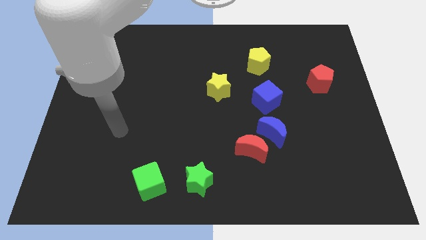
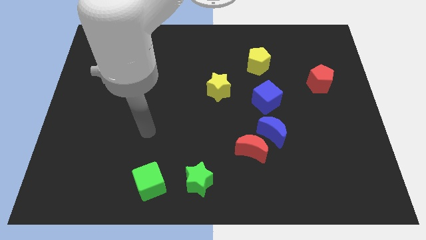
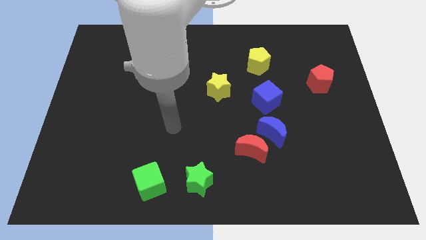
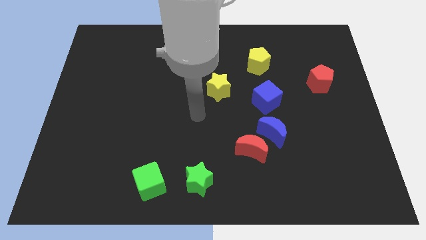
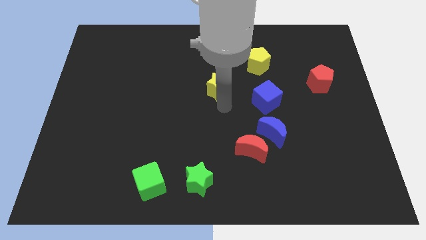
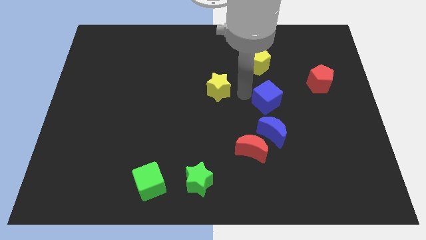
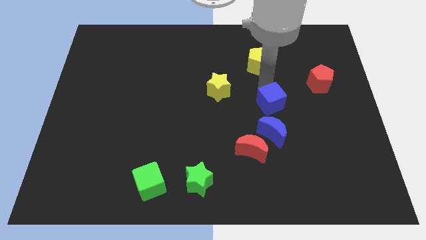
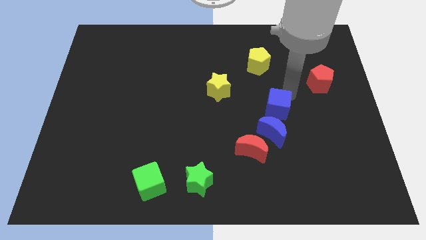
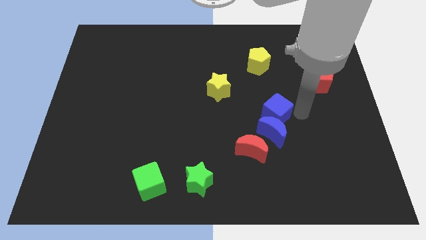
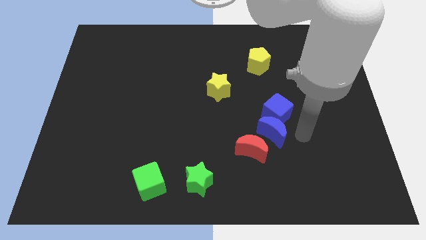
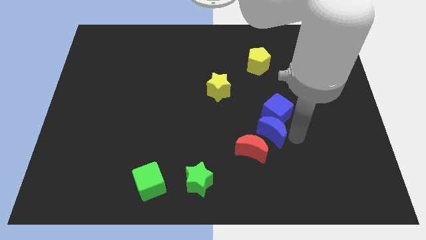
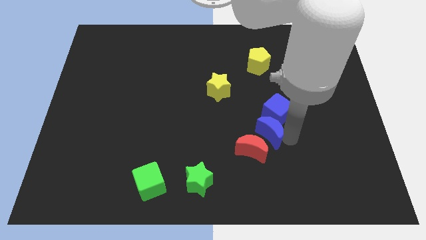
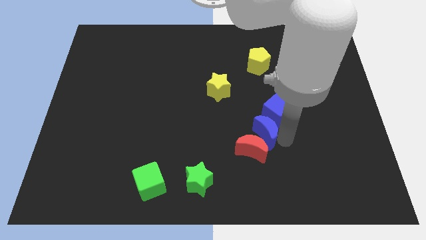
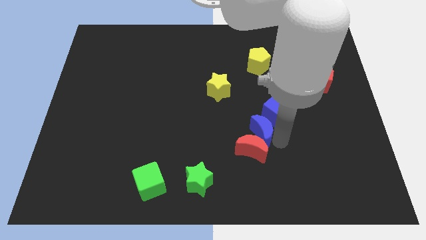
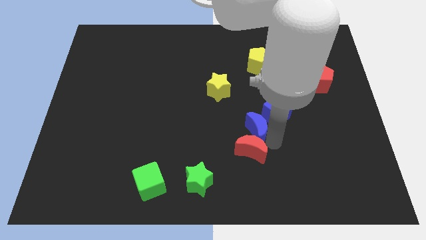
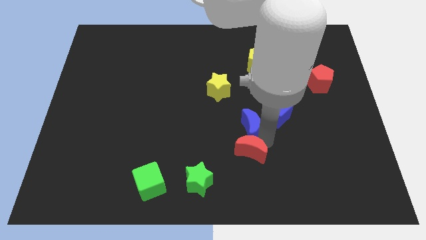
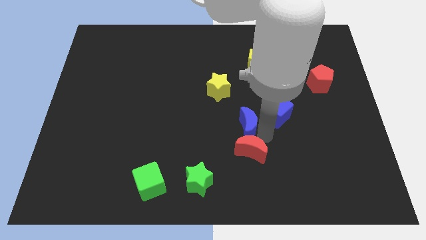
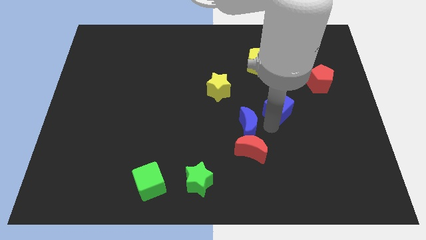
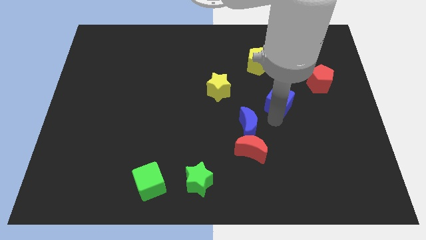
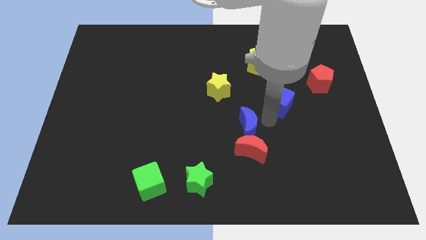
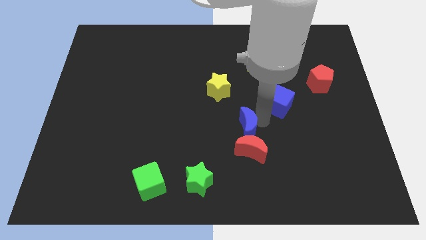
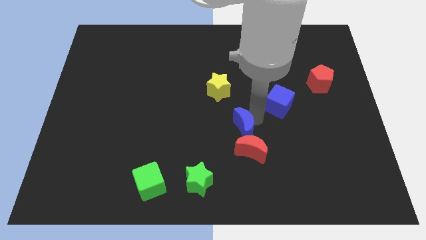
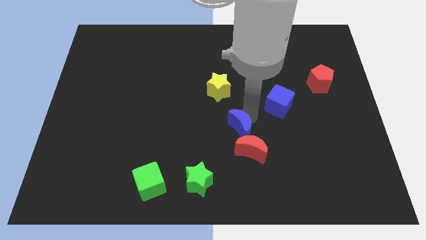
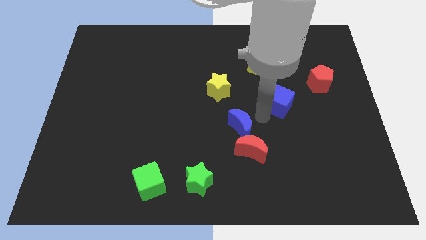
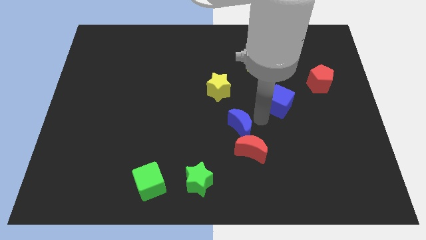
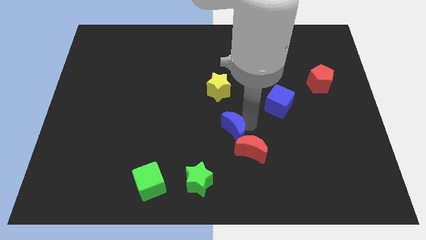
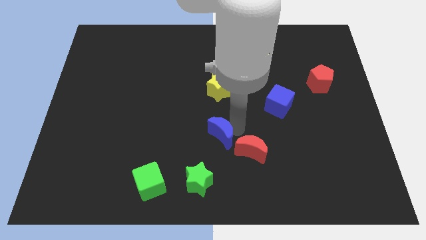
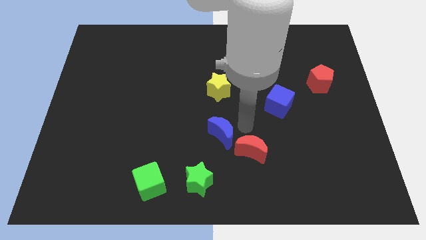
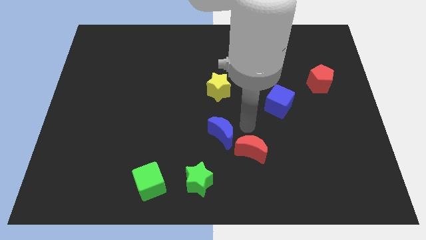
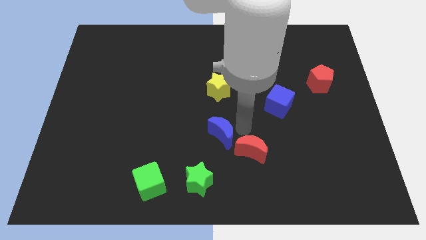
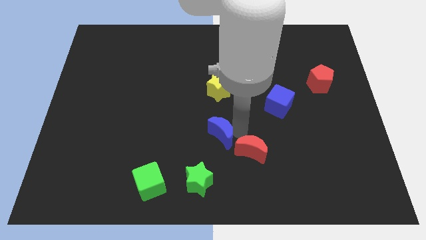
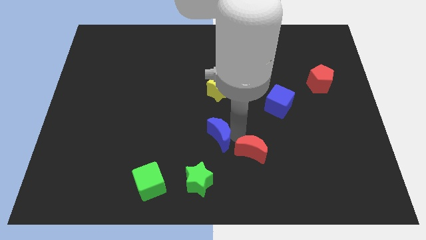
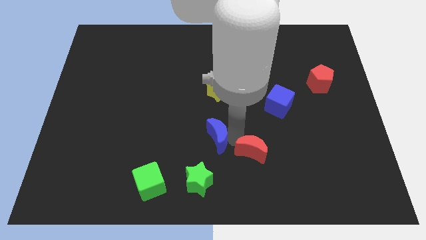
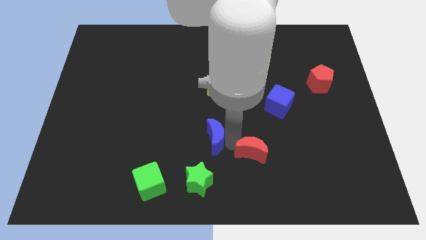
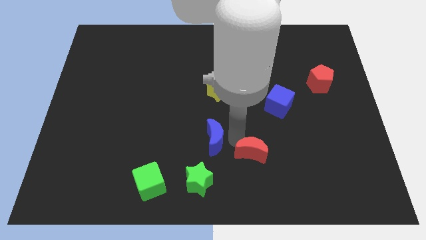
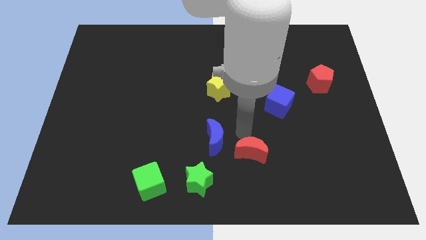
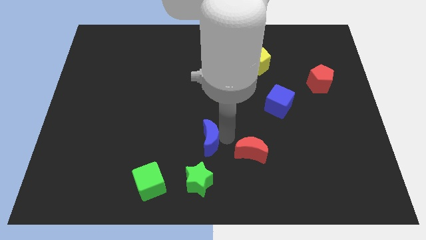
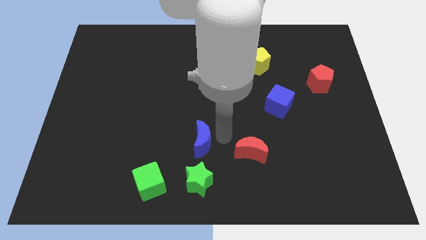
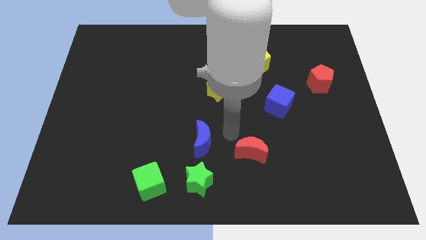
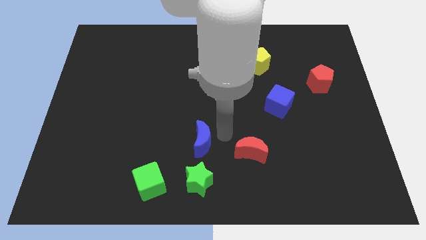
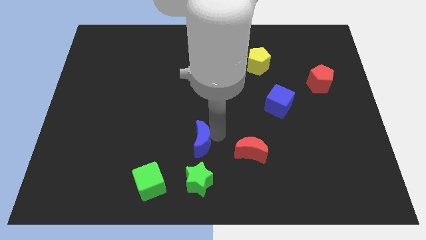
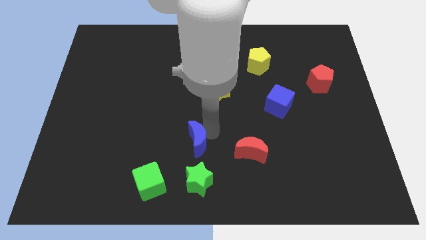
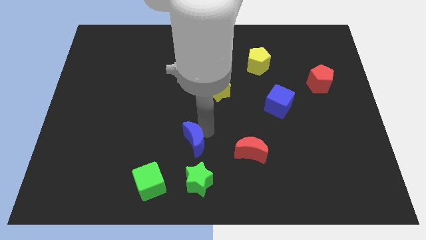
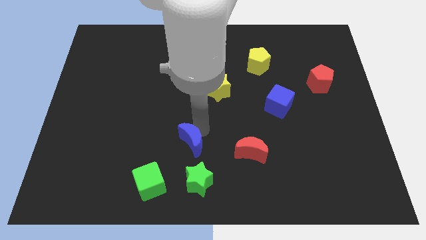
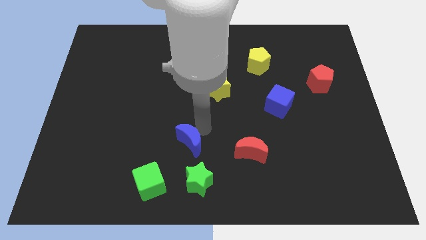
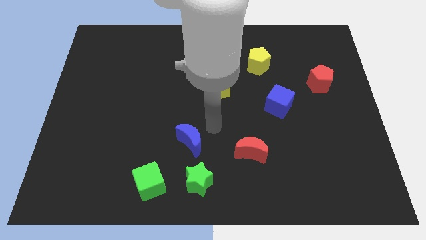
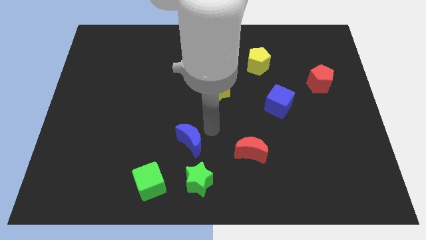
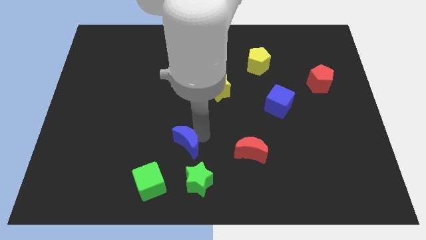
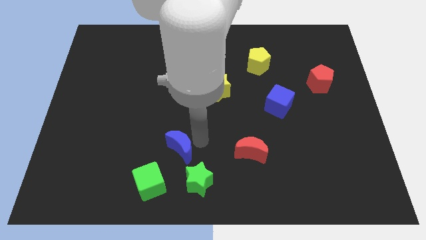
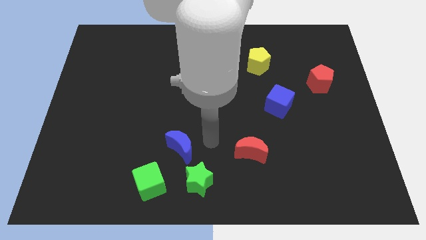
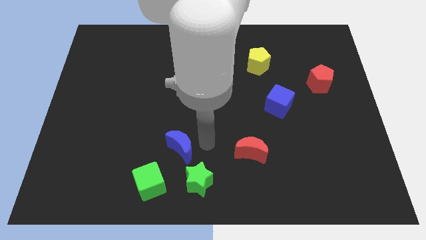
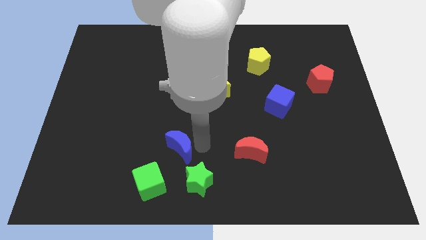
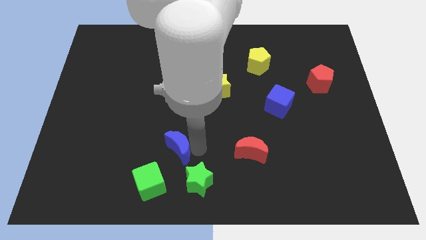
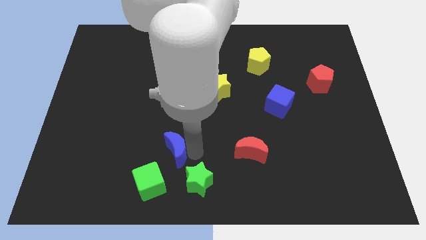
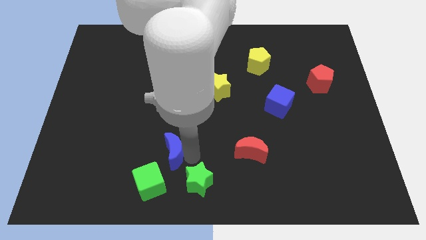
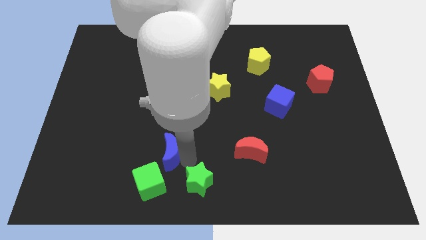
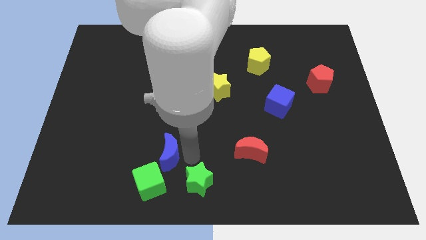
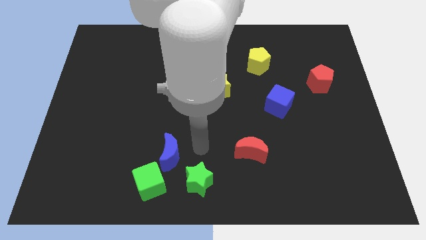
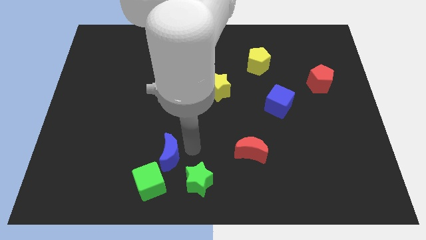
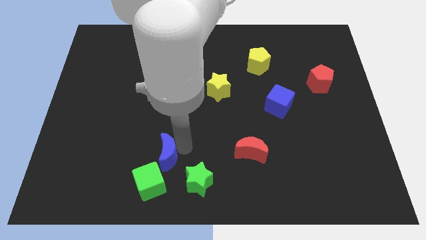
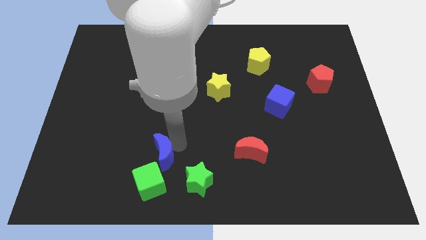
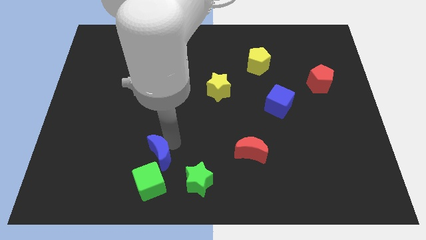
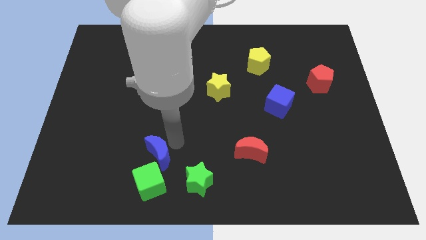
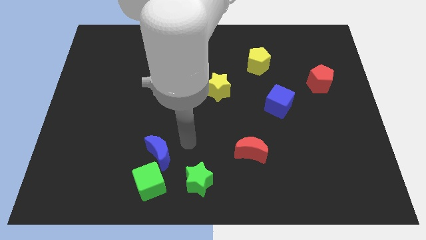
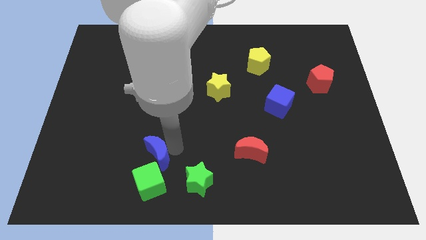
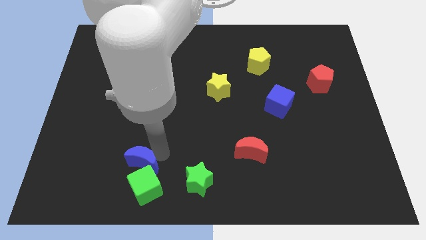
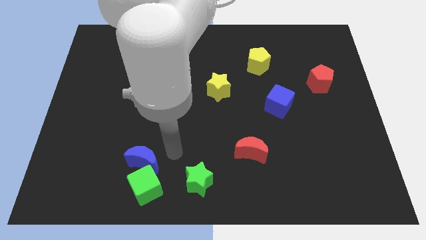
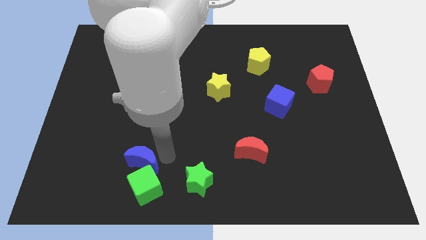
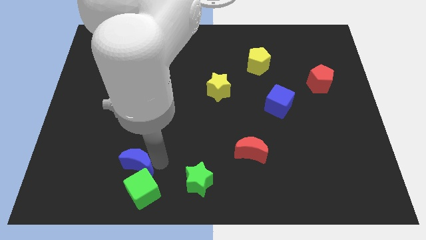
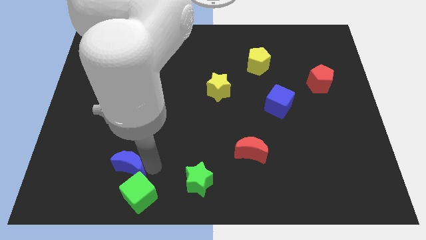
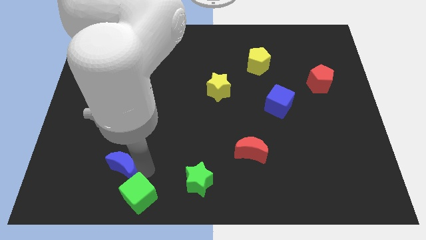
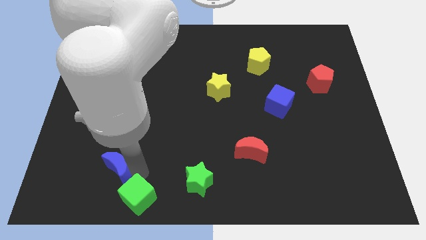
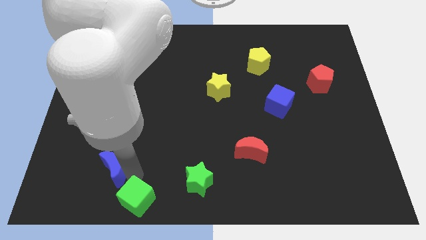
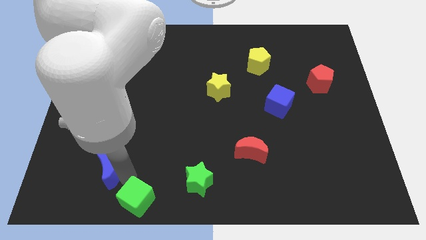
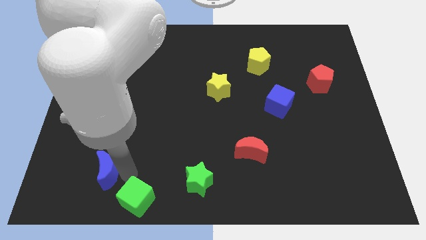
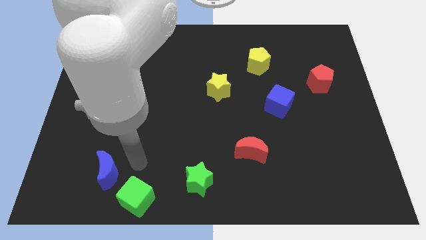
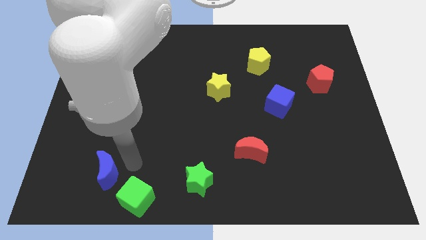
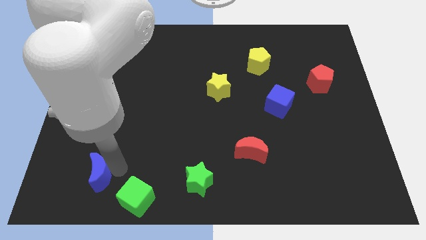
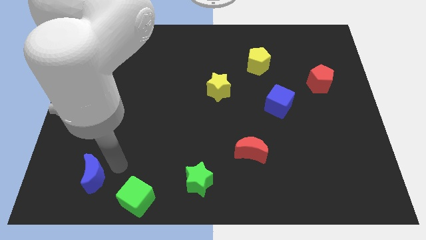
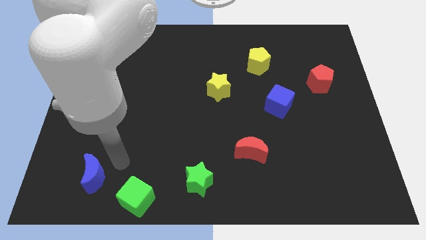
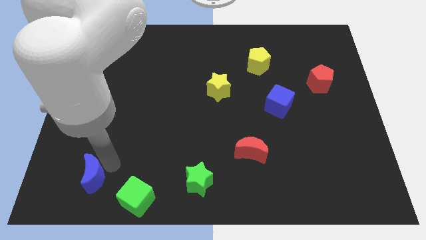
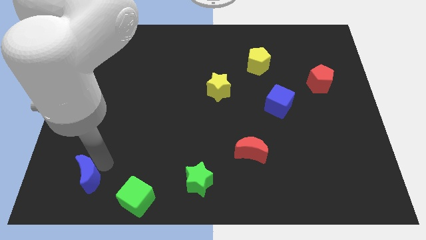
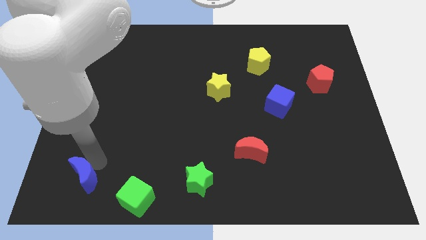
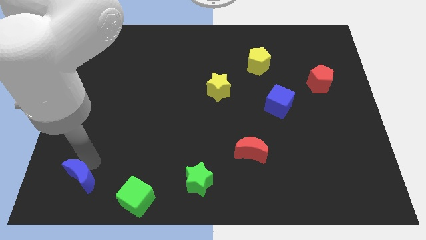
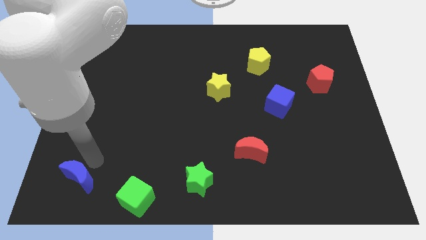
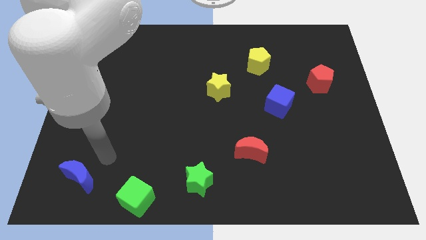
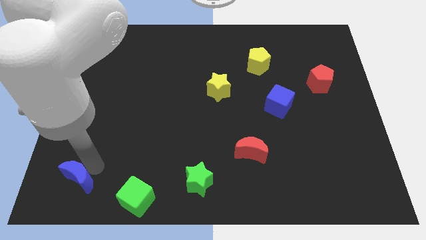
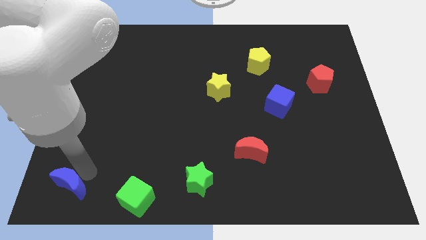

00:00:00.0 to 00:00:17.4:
put the blue moon to the bottom left corner
